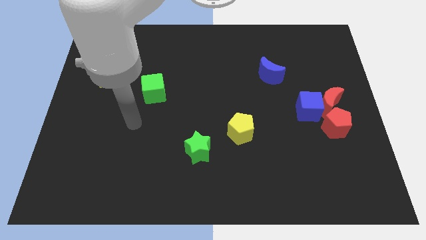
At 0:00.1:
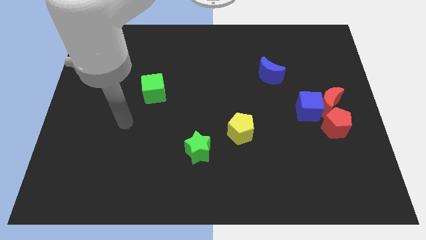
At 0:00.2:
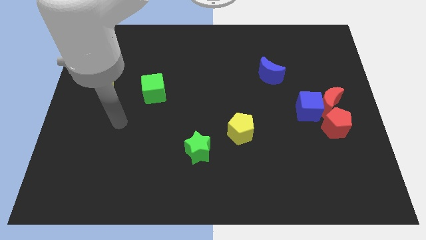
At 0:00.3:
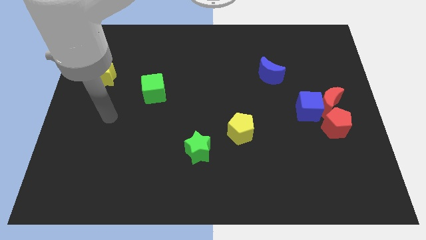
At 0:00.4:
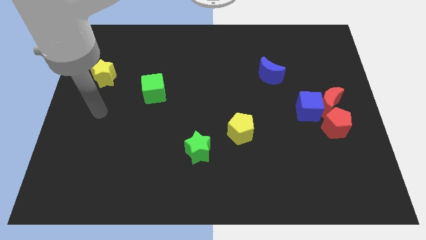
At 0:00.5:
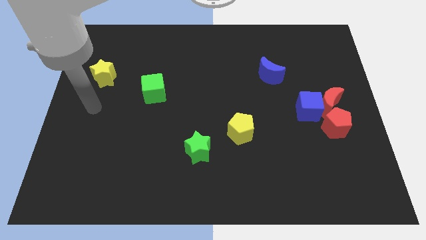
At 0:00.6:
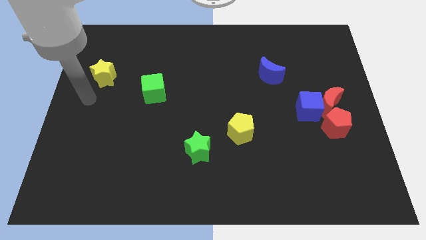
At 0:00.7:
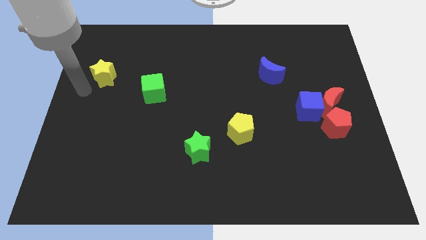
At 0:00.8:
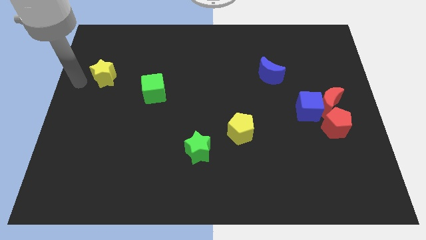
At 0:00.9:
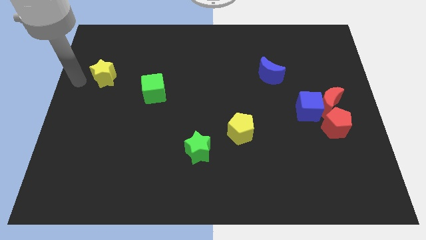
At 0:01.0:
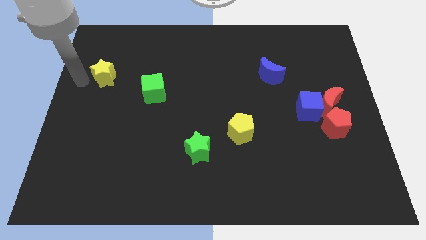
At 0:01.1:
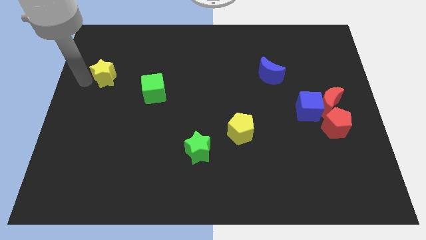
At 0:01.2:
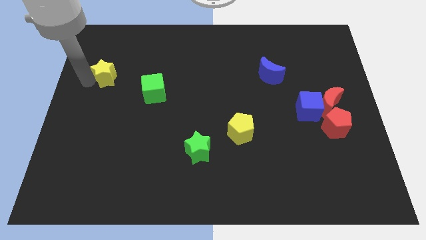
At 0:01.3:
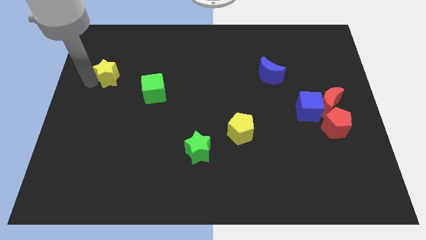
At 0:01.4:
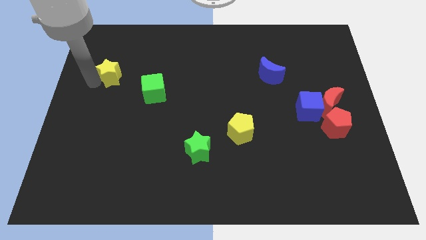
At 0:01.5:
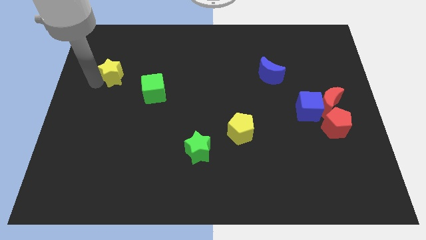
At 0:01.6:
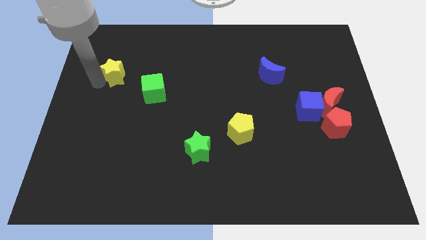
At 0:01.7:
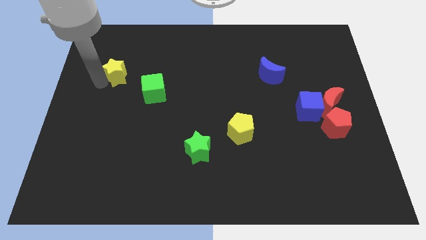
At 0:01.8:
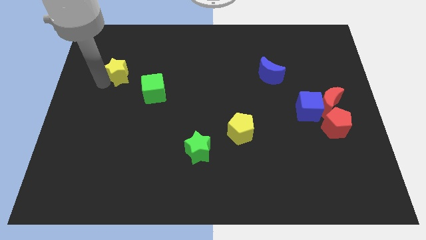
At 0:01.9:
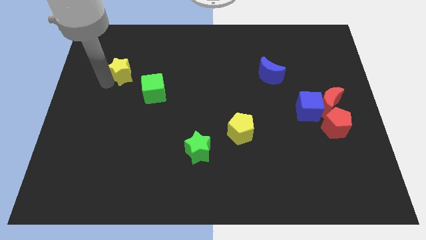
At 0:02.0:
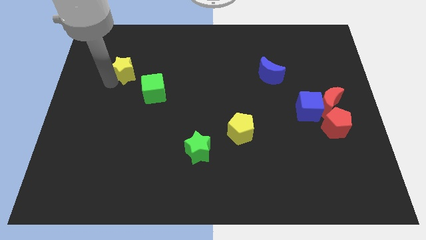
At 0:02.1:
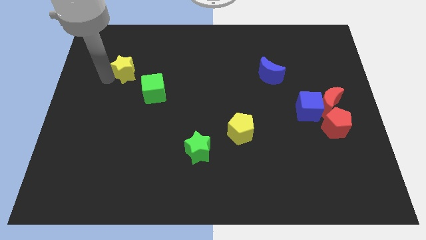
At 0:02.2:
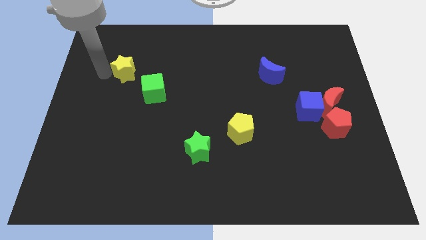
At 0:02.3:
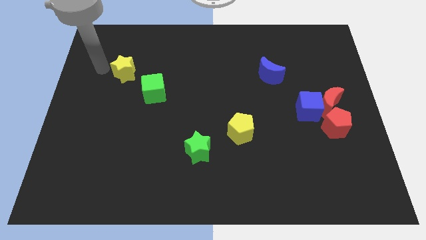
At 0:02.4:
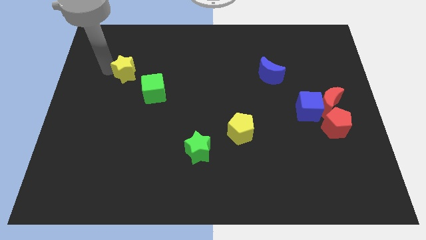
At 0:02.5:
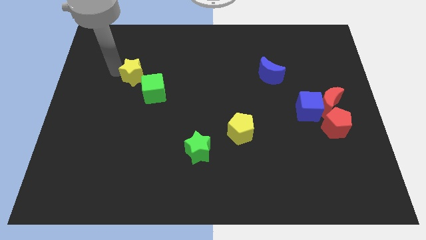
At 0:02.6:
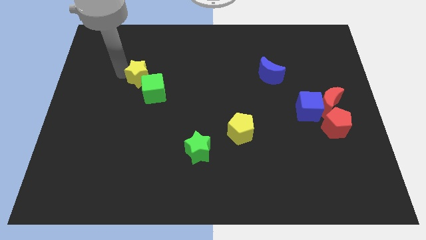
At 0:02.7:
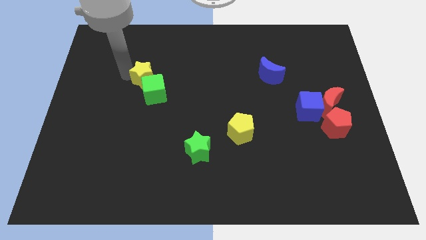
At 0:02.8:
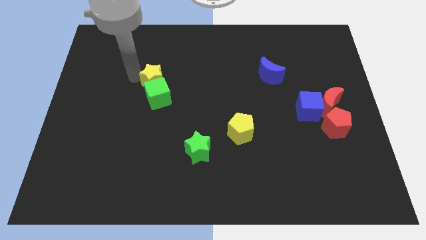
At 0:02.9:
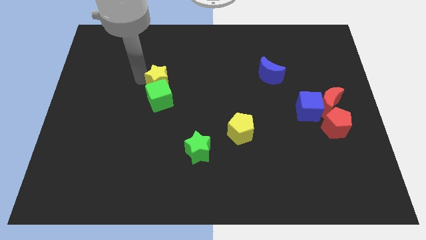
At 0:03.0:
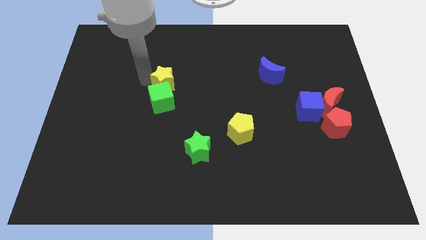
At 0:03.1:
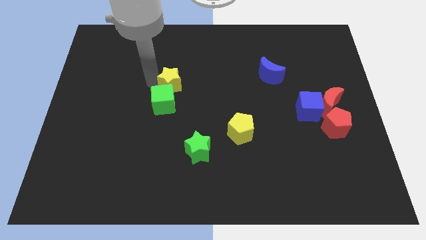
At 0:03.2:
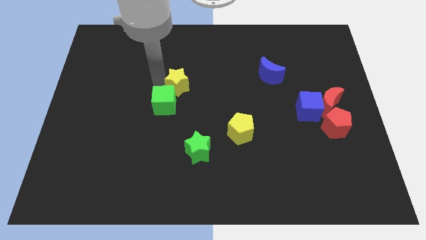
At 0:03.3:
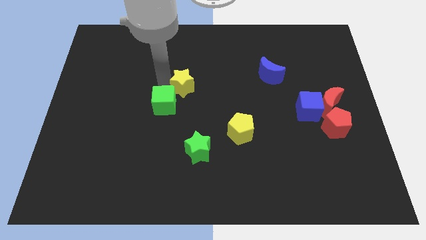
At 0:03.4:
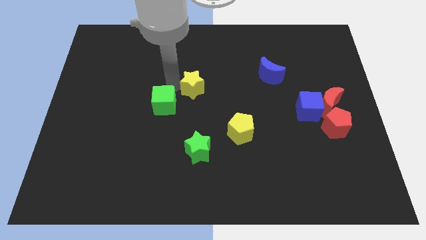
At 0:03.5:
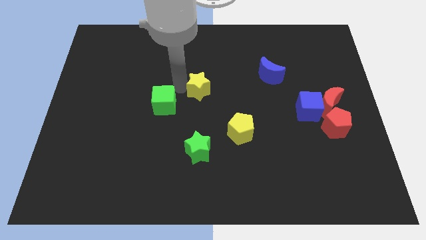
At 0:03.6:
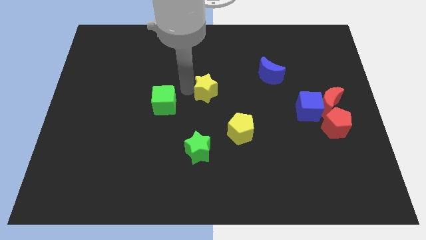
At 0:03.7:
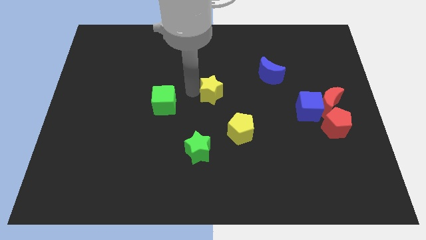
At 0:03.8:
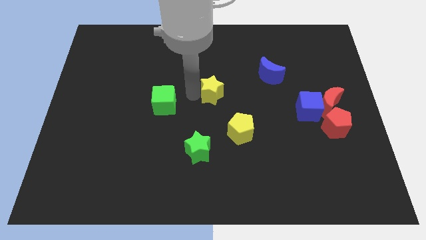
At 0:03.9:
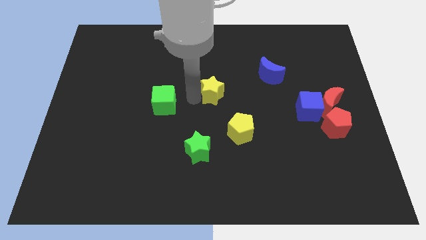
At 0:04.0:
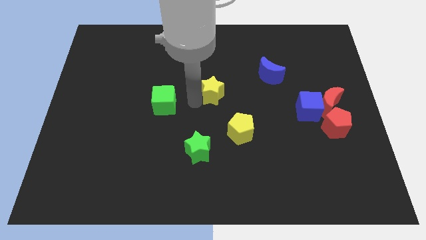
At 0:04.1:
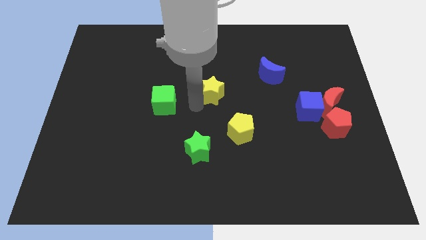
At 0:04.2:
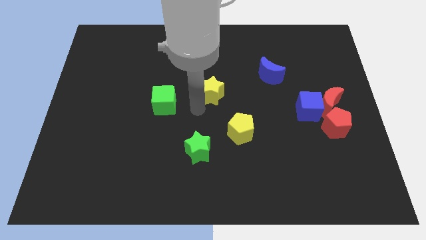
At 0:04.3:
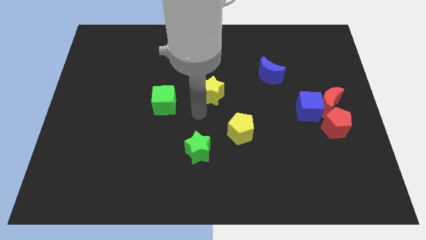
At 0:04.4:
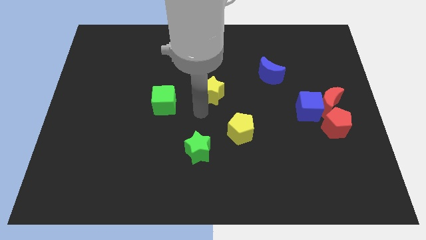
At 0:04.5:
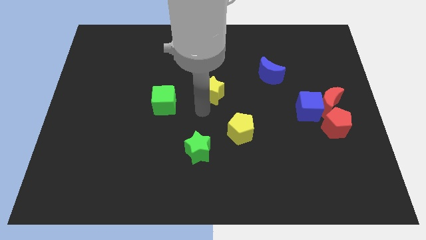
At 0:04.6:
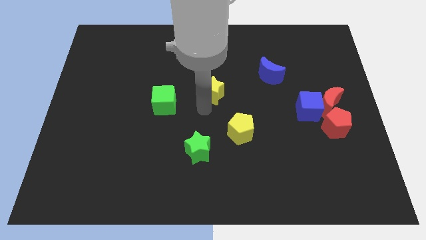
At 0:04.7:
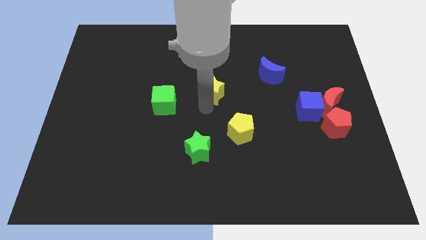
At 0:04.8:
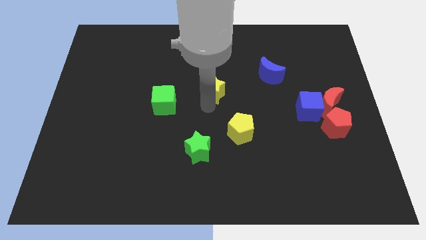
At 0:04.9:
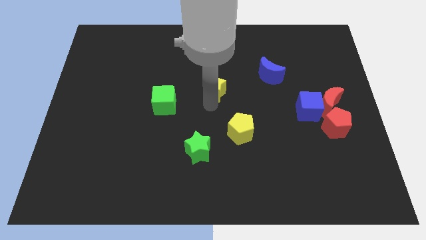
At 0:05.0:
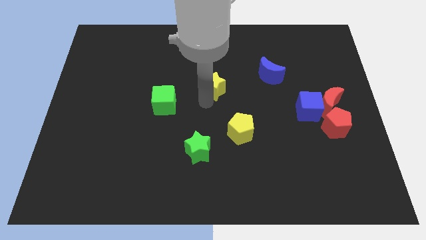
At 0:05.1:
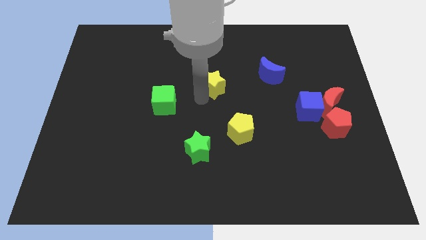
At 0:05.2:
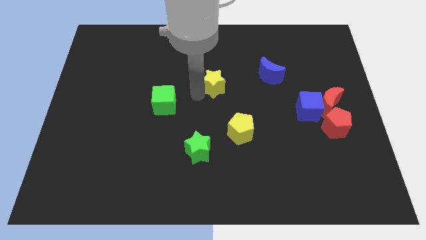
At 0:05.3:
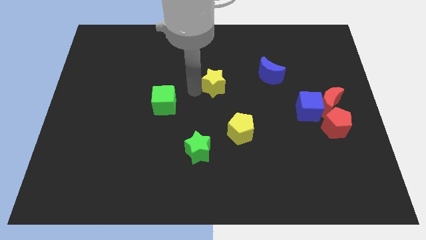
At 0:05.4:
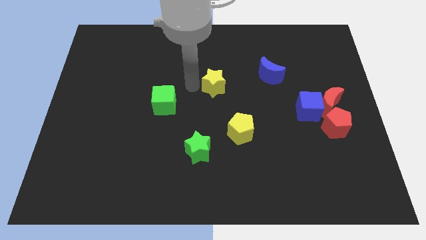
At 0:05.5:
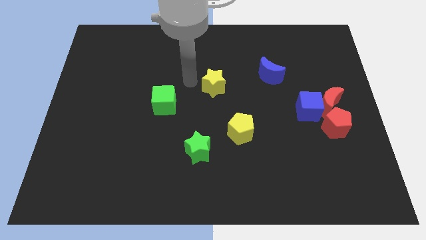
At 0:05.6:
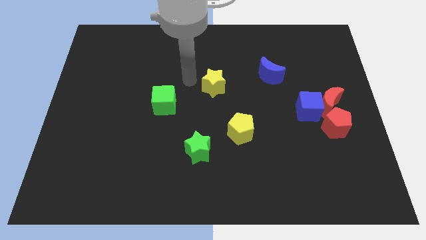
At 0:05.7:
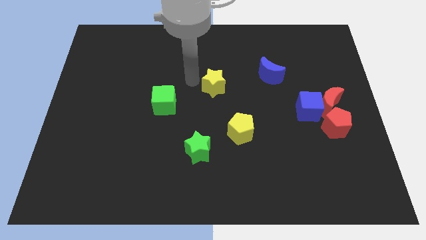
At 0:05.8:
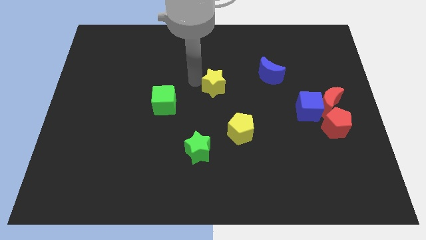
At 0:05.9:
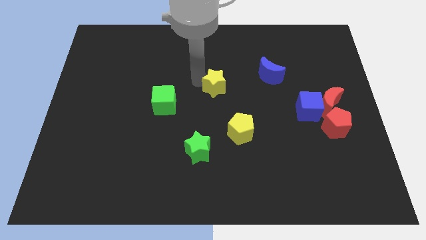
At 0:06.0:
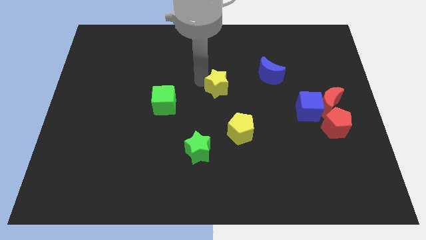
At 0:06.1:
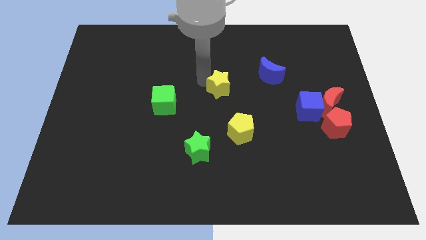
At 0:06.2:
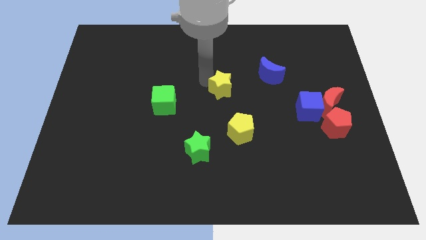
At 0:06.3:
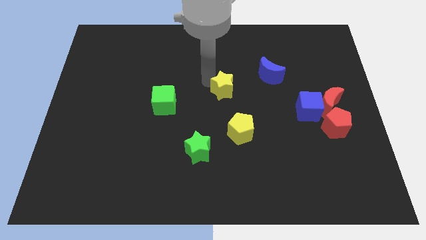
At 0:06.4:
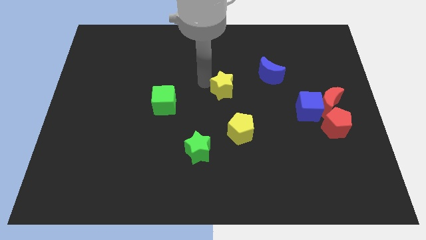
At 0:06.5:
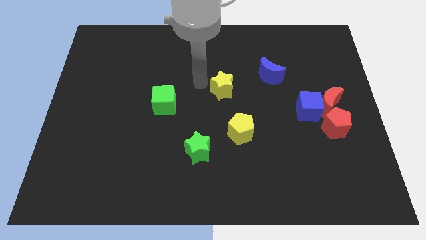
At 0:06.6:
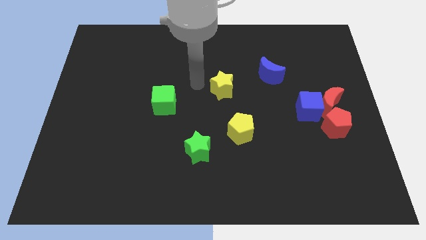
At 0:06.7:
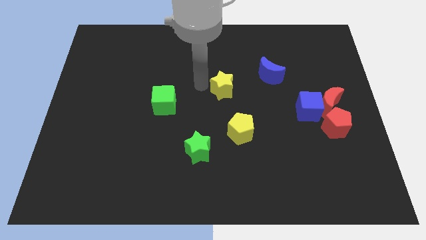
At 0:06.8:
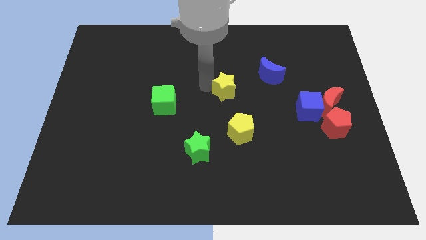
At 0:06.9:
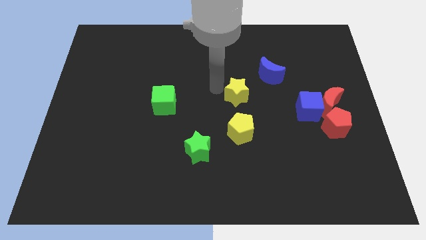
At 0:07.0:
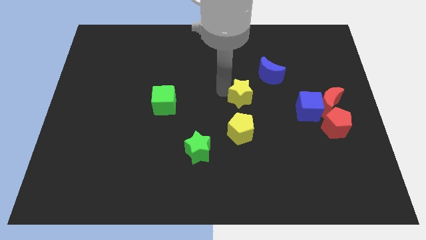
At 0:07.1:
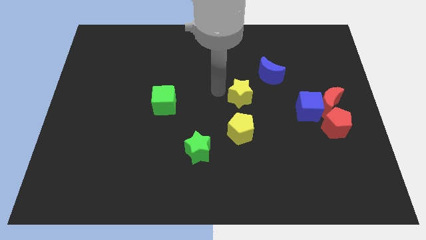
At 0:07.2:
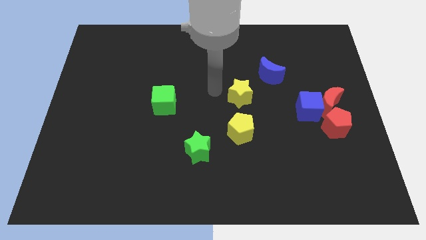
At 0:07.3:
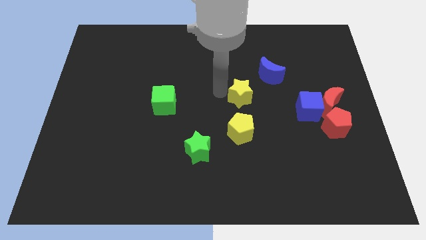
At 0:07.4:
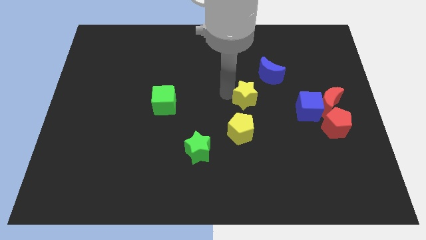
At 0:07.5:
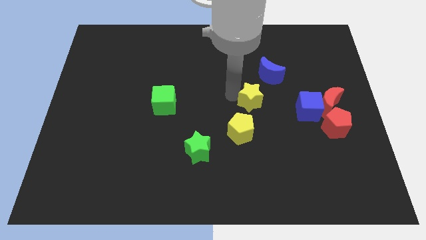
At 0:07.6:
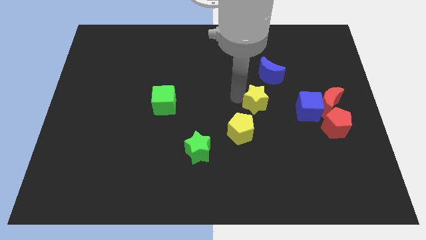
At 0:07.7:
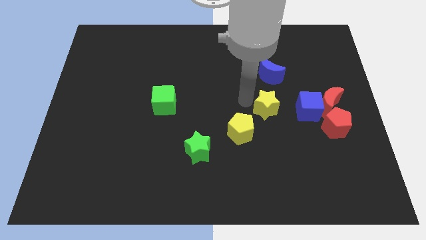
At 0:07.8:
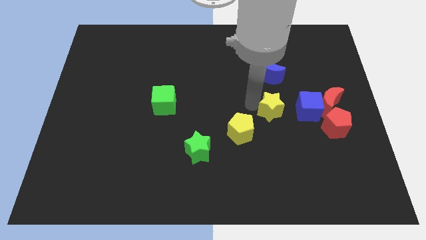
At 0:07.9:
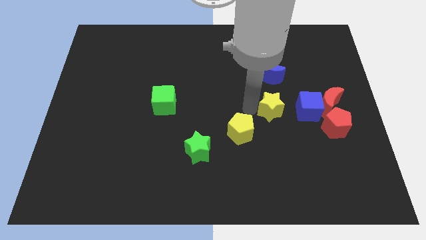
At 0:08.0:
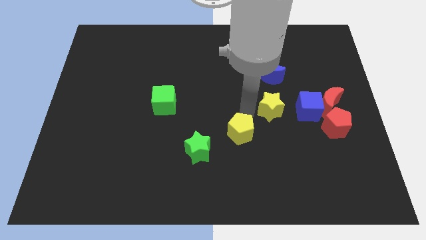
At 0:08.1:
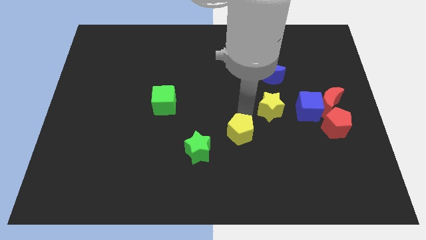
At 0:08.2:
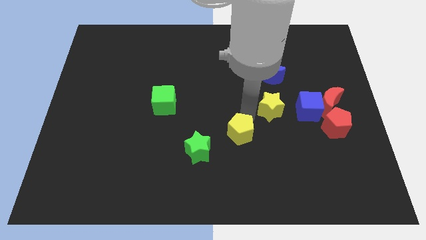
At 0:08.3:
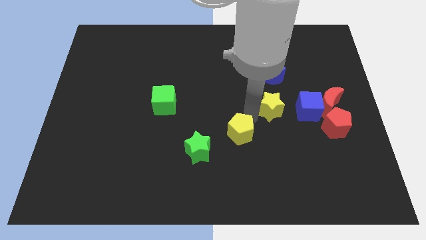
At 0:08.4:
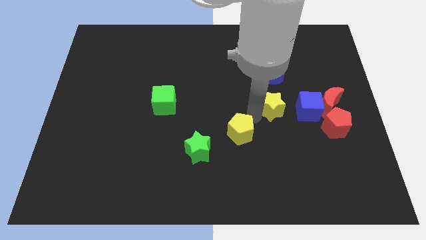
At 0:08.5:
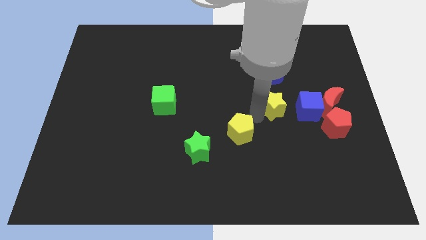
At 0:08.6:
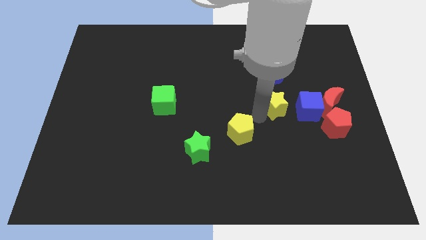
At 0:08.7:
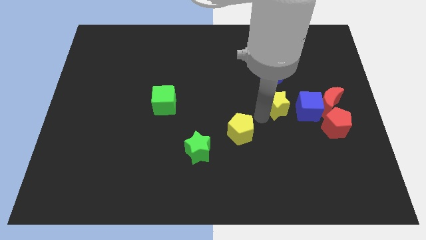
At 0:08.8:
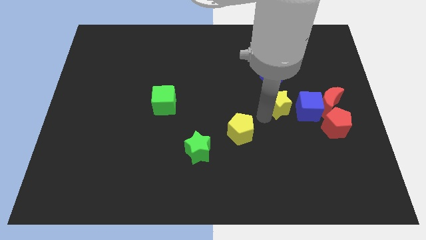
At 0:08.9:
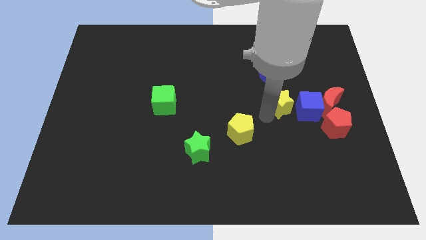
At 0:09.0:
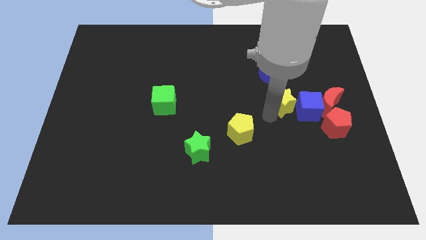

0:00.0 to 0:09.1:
push the yellow star towards the blue cube
